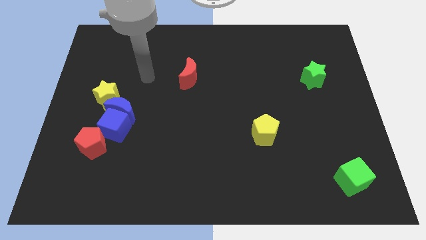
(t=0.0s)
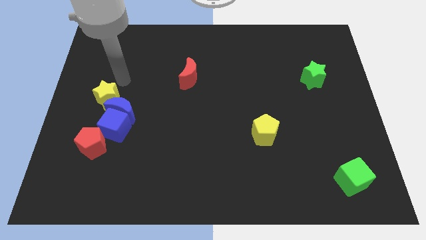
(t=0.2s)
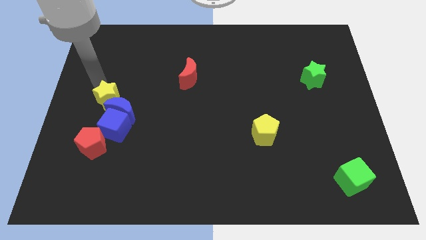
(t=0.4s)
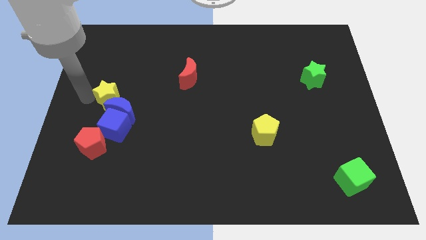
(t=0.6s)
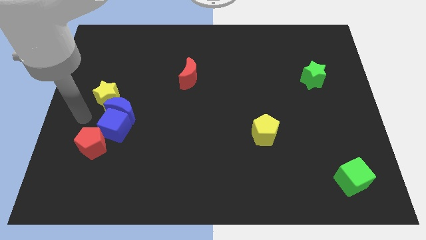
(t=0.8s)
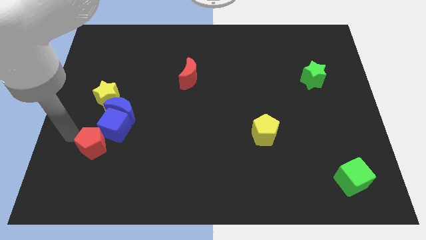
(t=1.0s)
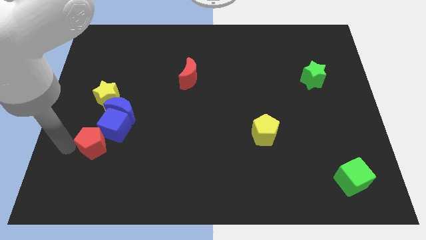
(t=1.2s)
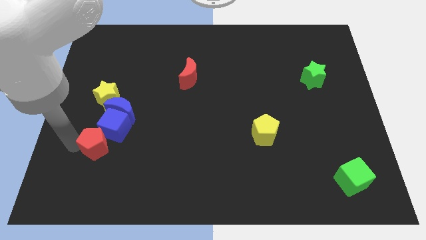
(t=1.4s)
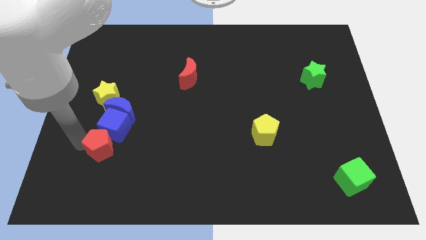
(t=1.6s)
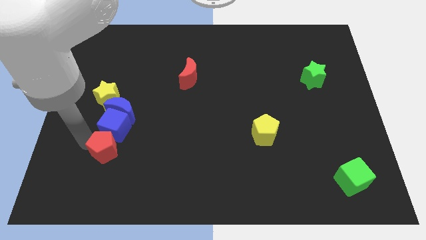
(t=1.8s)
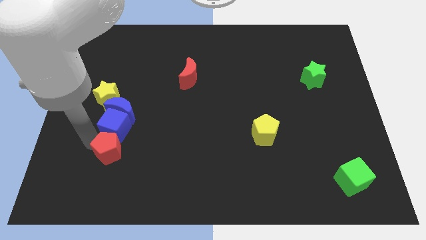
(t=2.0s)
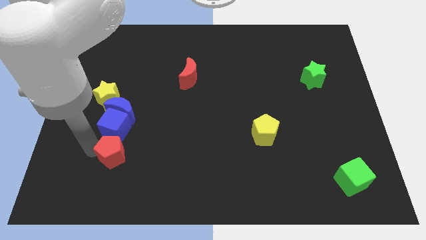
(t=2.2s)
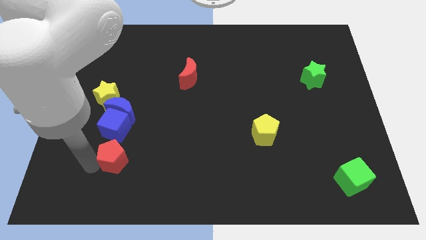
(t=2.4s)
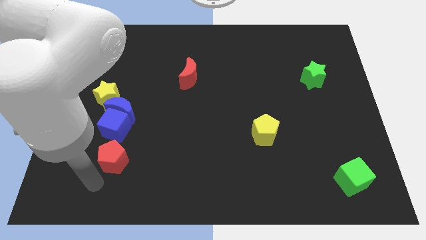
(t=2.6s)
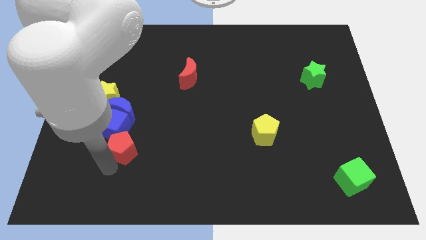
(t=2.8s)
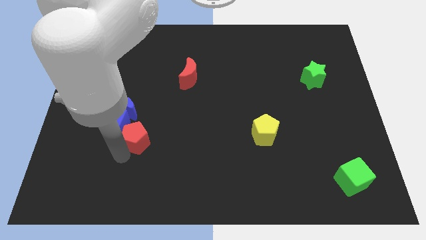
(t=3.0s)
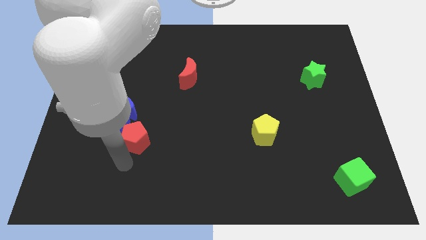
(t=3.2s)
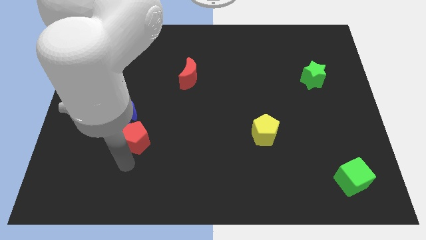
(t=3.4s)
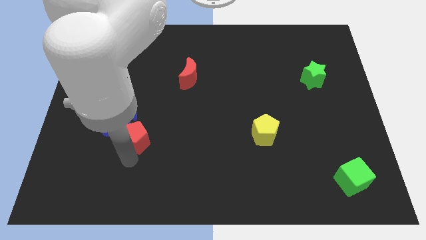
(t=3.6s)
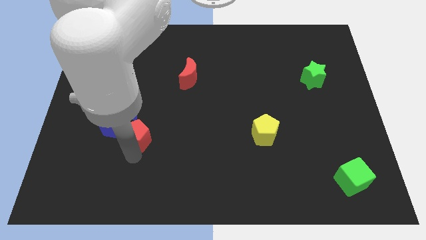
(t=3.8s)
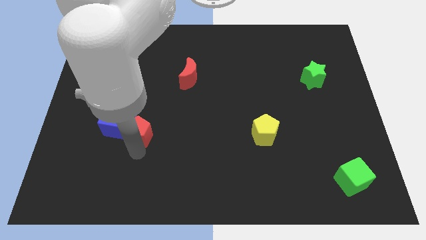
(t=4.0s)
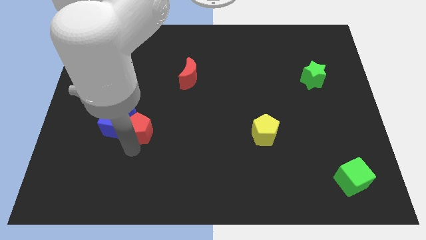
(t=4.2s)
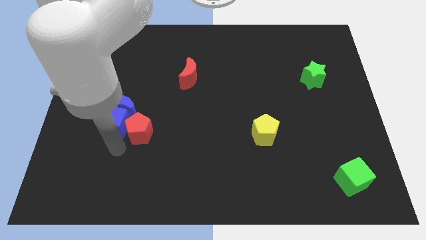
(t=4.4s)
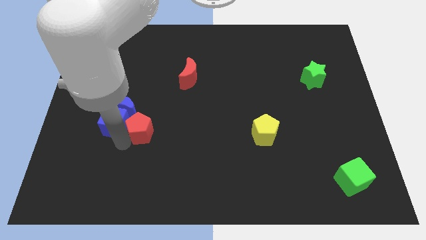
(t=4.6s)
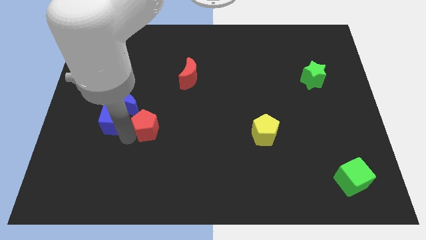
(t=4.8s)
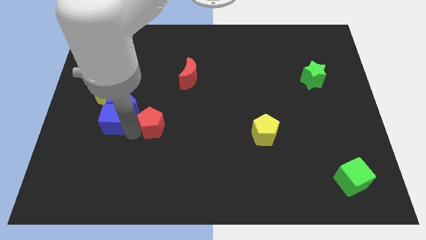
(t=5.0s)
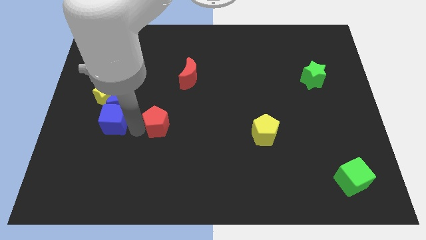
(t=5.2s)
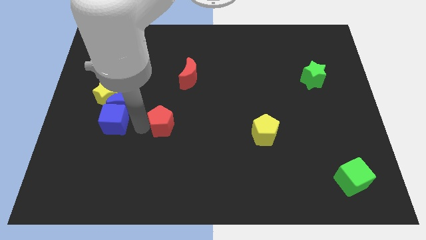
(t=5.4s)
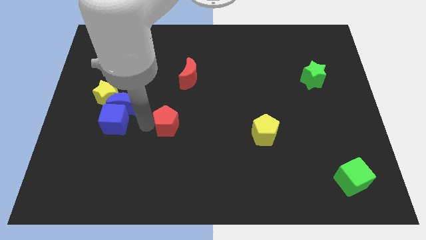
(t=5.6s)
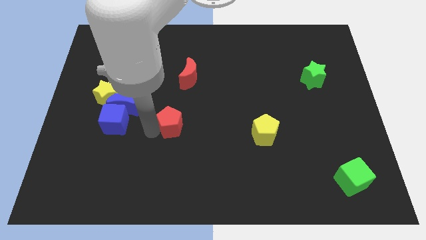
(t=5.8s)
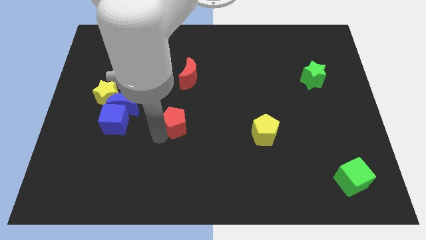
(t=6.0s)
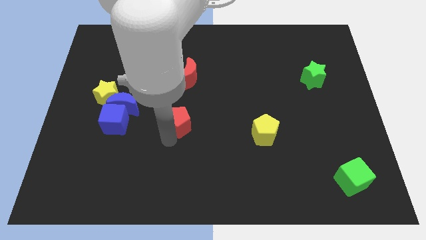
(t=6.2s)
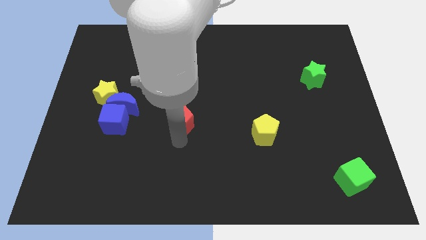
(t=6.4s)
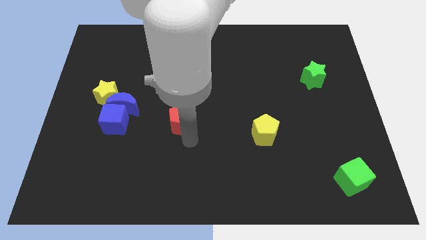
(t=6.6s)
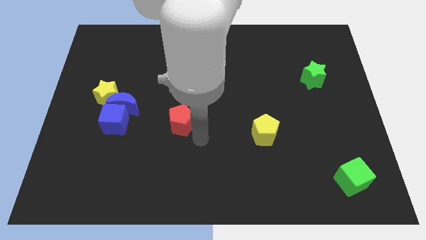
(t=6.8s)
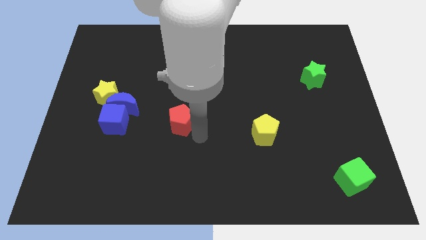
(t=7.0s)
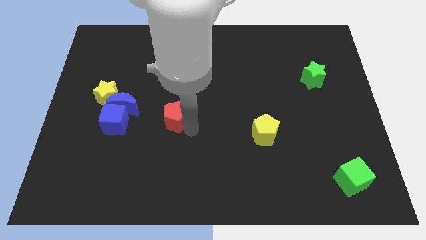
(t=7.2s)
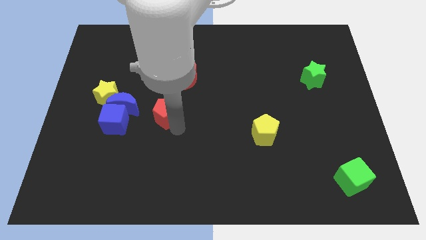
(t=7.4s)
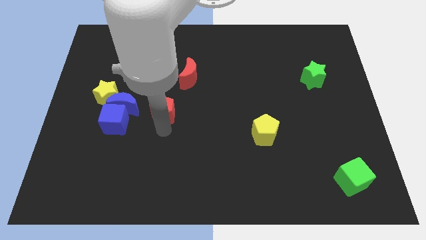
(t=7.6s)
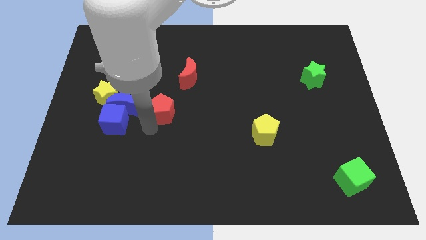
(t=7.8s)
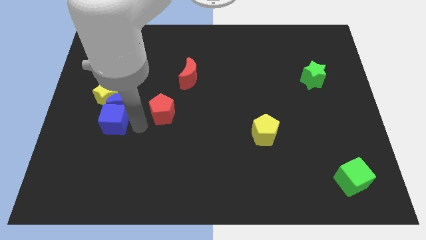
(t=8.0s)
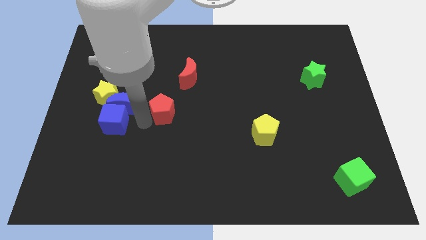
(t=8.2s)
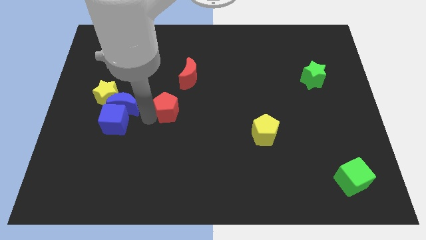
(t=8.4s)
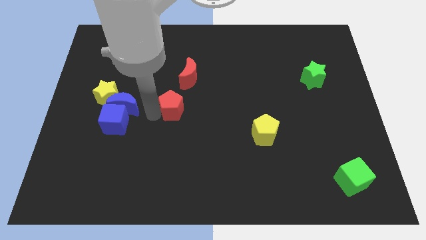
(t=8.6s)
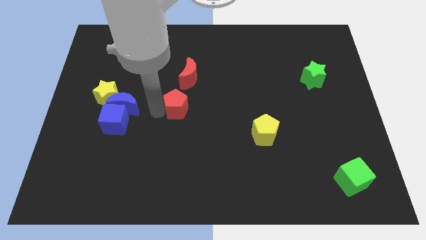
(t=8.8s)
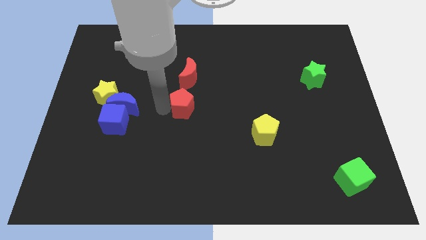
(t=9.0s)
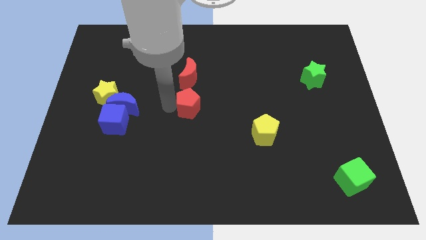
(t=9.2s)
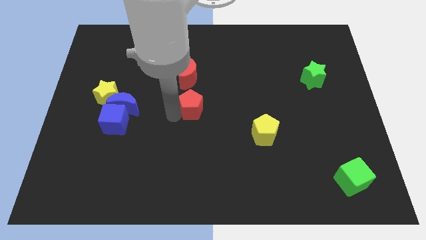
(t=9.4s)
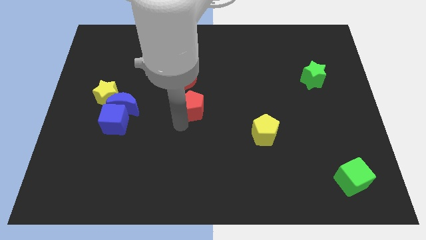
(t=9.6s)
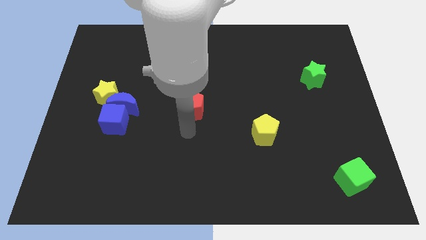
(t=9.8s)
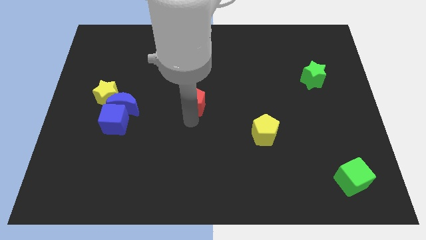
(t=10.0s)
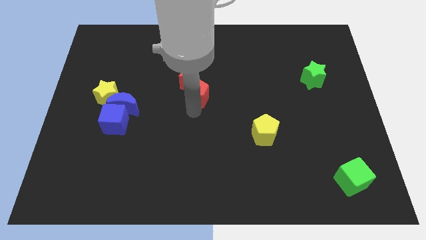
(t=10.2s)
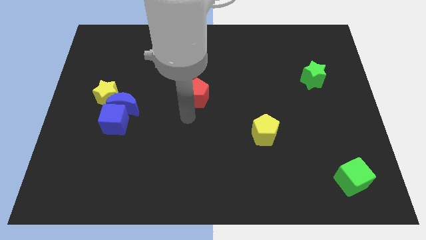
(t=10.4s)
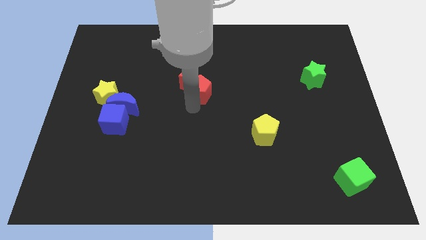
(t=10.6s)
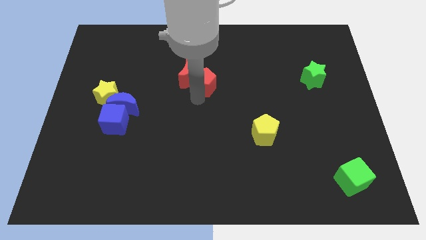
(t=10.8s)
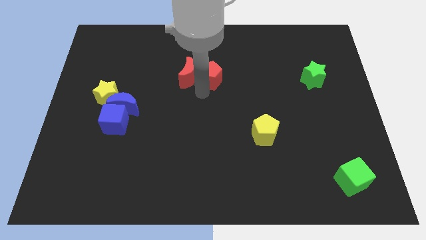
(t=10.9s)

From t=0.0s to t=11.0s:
push the red pentagon diagonally up and to the right of the red moon
